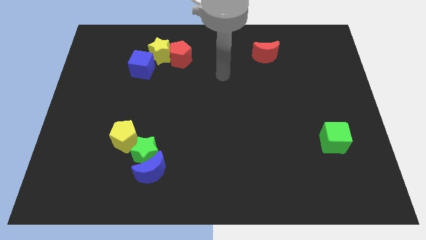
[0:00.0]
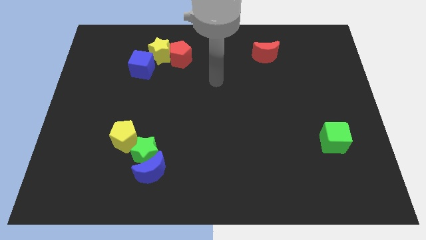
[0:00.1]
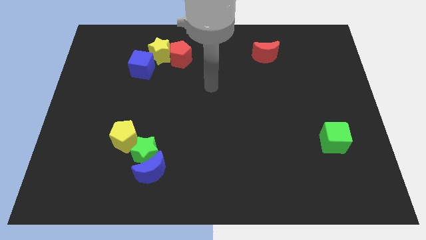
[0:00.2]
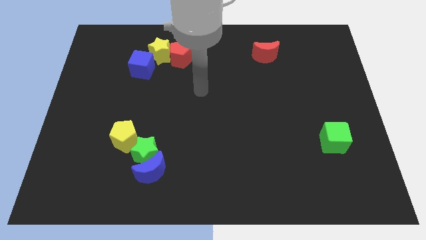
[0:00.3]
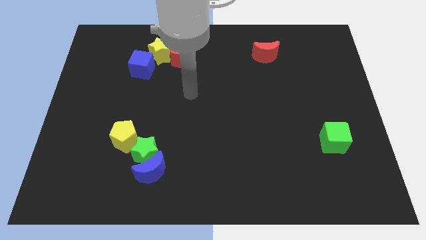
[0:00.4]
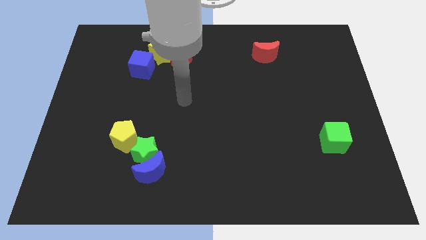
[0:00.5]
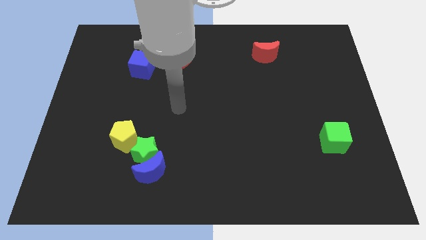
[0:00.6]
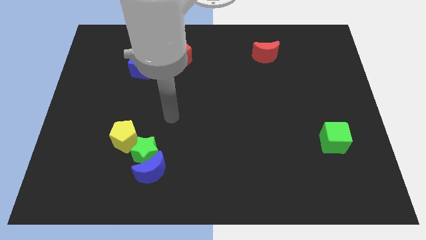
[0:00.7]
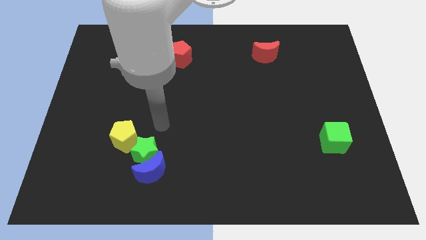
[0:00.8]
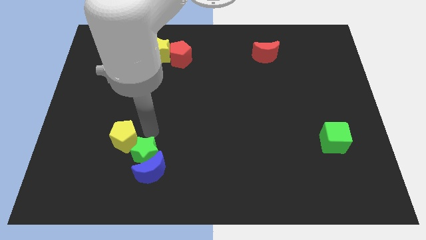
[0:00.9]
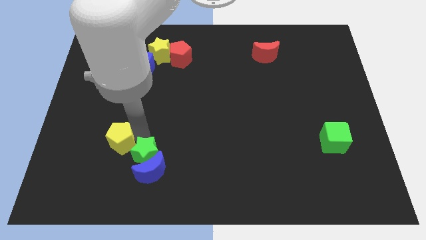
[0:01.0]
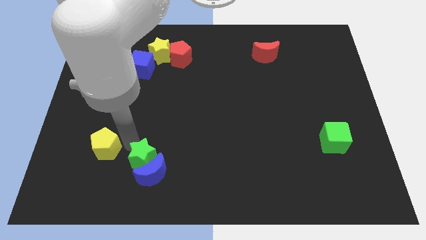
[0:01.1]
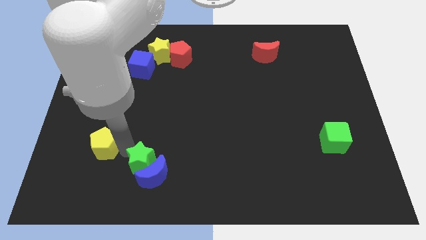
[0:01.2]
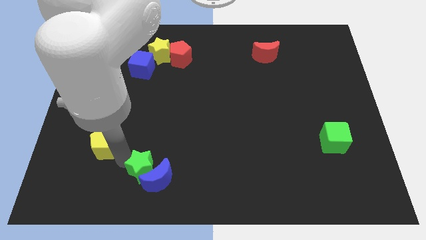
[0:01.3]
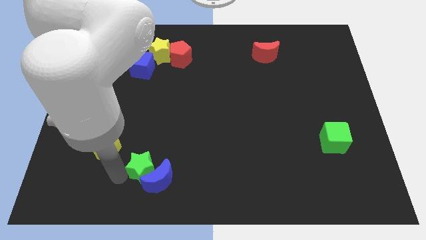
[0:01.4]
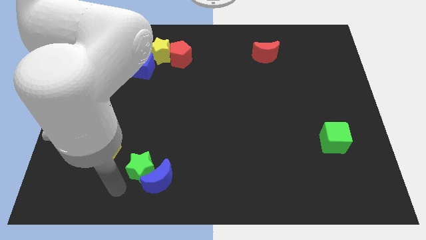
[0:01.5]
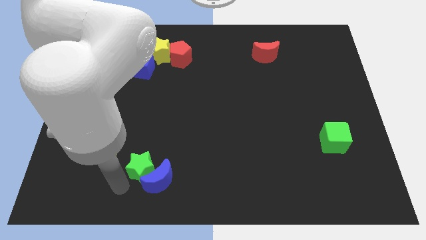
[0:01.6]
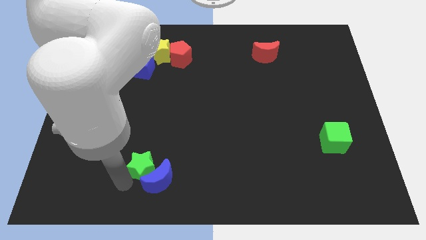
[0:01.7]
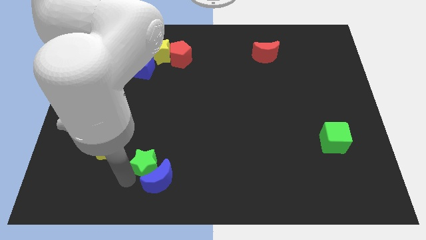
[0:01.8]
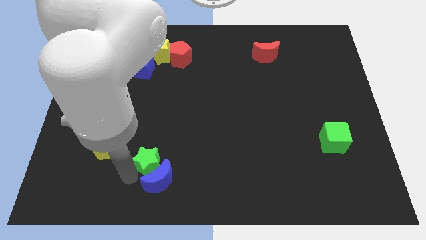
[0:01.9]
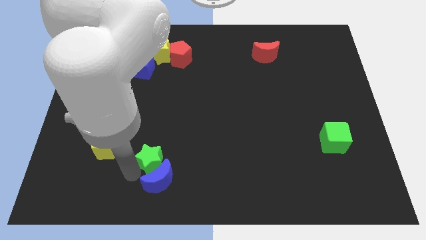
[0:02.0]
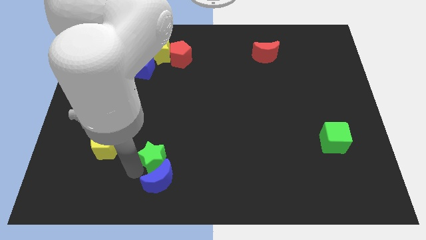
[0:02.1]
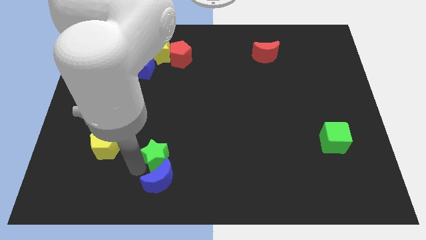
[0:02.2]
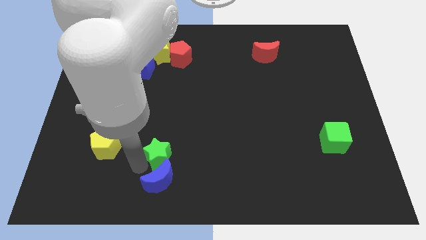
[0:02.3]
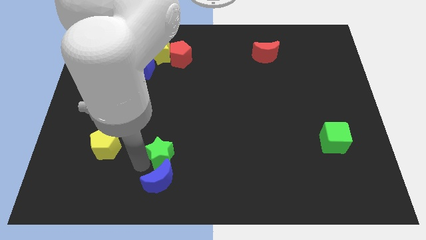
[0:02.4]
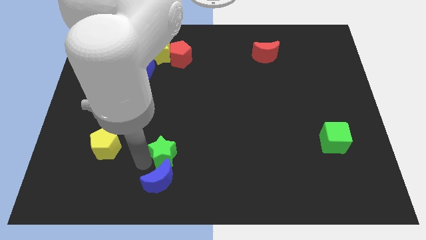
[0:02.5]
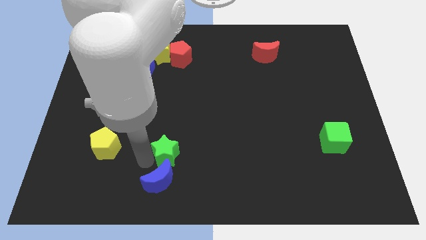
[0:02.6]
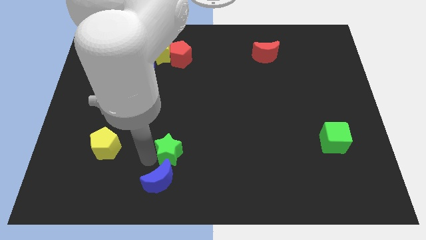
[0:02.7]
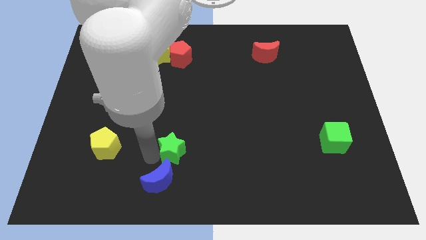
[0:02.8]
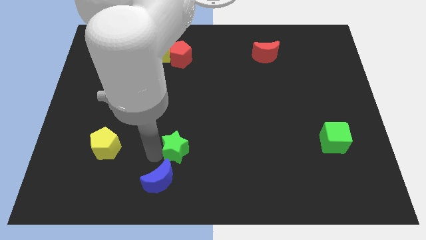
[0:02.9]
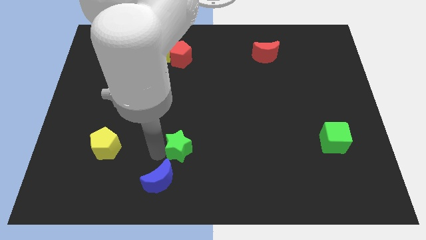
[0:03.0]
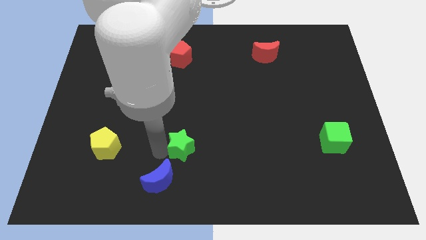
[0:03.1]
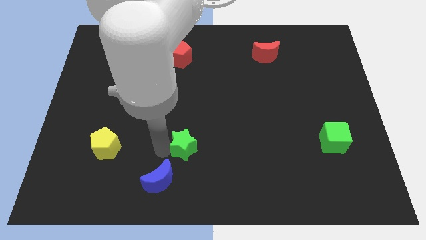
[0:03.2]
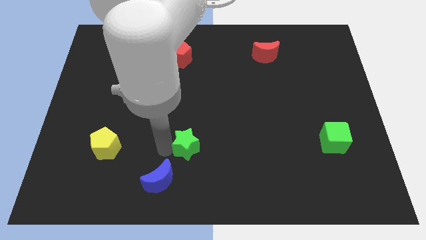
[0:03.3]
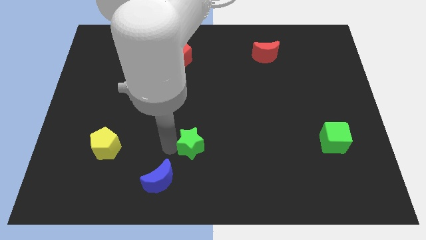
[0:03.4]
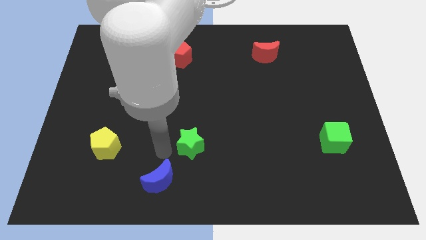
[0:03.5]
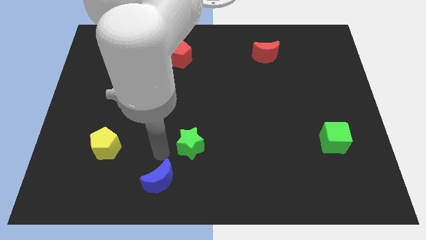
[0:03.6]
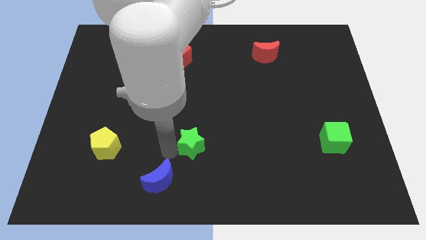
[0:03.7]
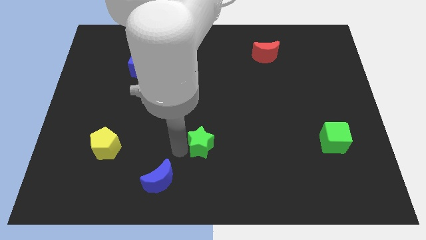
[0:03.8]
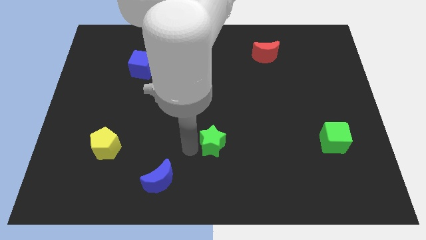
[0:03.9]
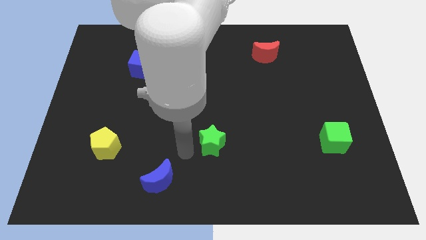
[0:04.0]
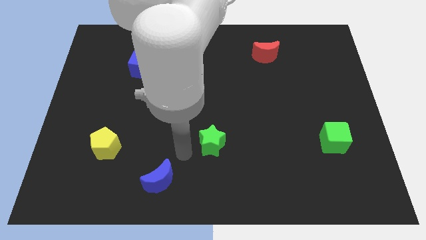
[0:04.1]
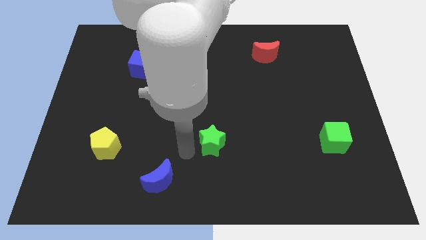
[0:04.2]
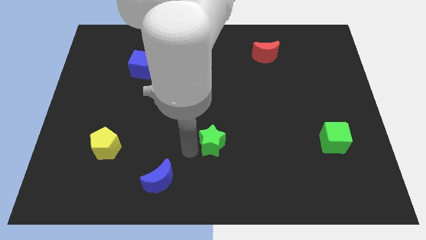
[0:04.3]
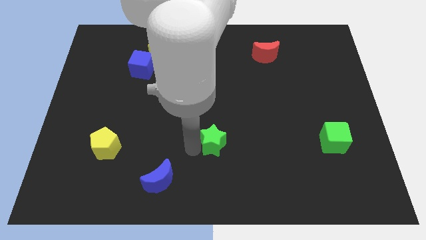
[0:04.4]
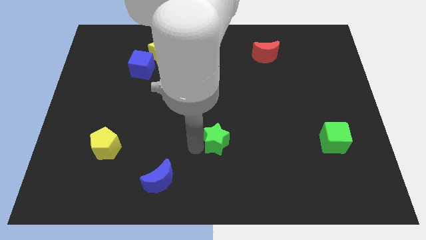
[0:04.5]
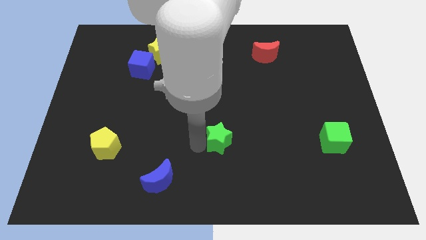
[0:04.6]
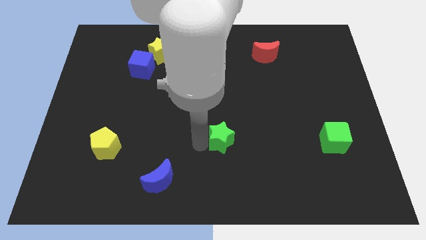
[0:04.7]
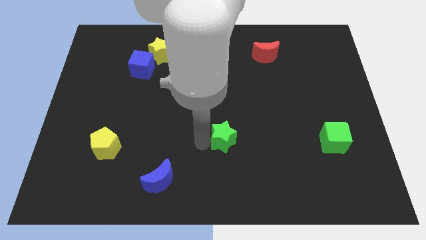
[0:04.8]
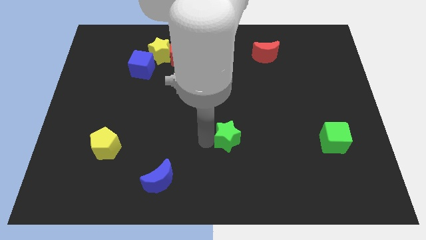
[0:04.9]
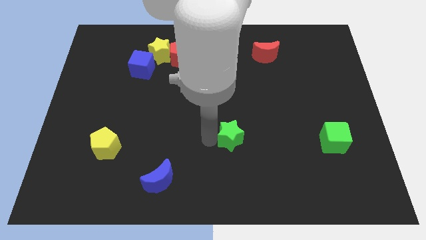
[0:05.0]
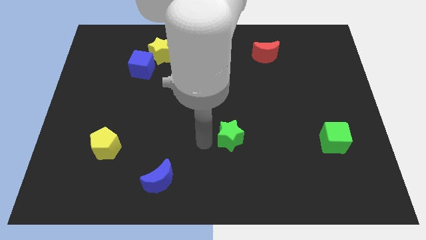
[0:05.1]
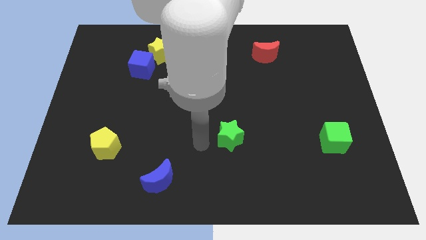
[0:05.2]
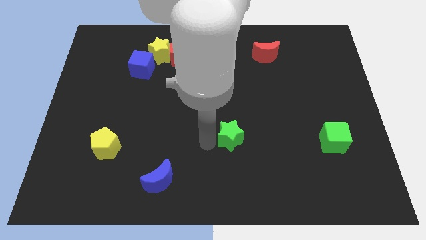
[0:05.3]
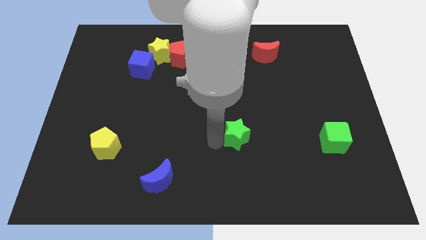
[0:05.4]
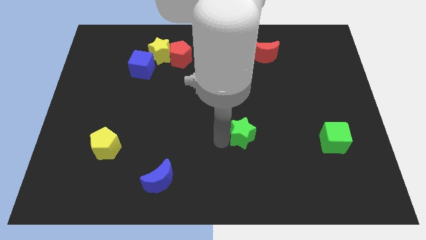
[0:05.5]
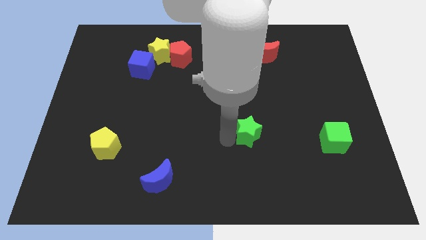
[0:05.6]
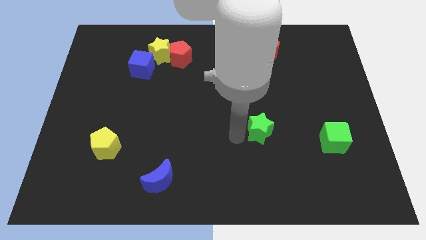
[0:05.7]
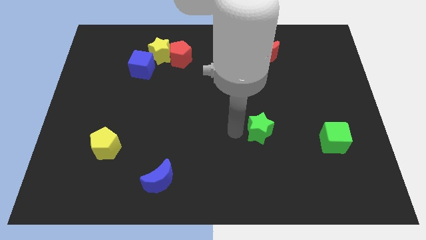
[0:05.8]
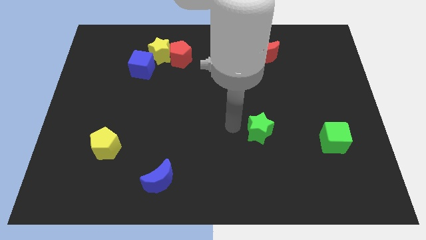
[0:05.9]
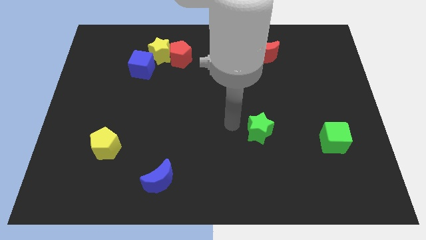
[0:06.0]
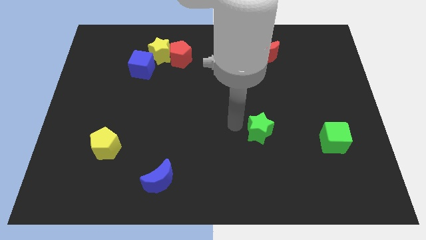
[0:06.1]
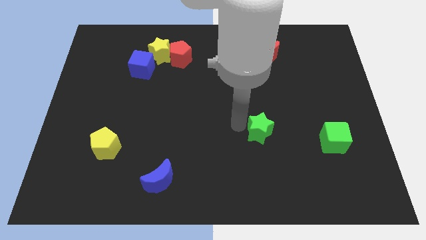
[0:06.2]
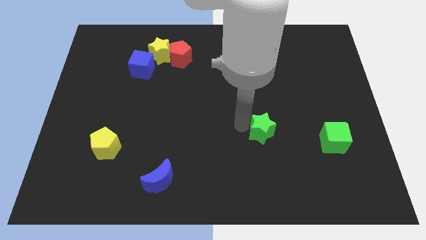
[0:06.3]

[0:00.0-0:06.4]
move the green star to the left of the green cube
